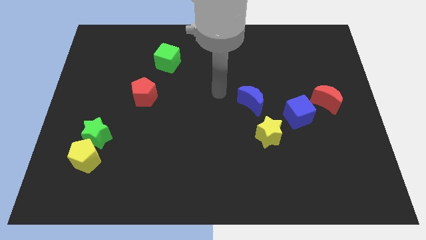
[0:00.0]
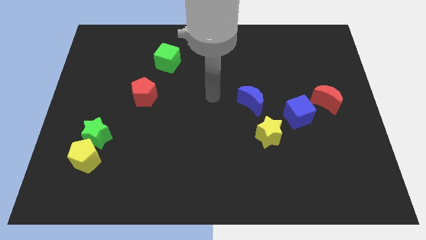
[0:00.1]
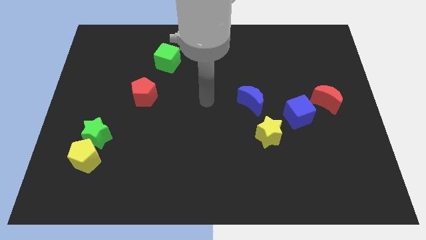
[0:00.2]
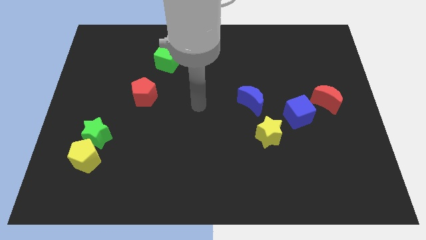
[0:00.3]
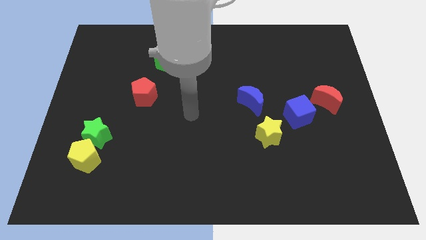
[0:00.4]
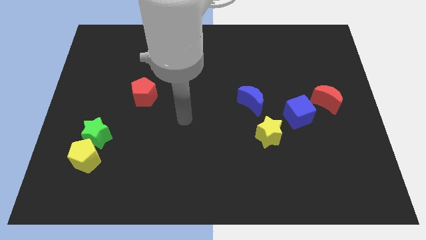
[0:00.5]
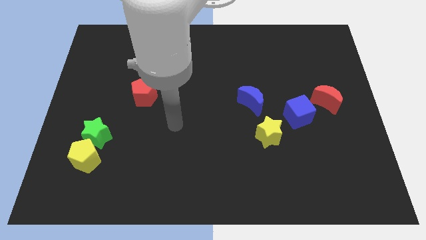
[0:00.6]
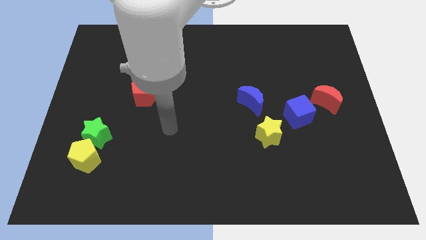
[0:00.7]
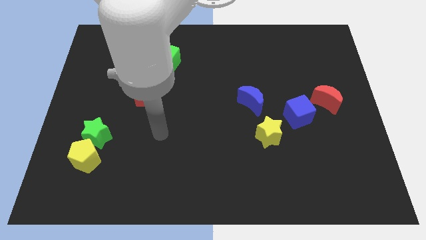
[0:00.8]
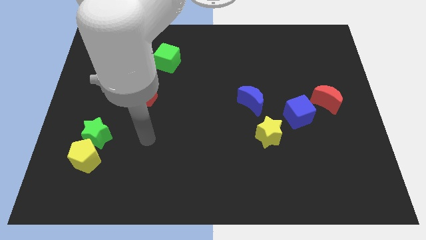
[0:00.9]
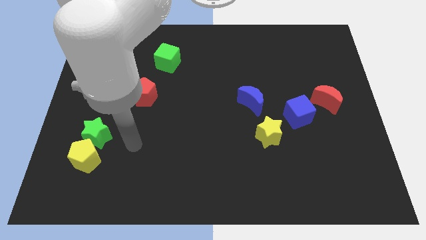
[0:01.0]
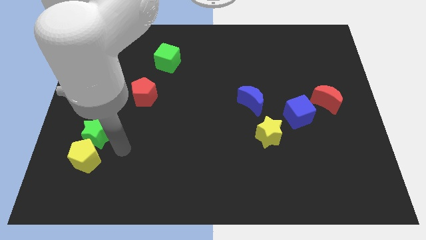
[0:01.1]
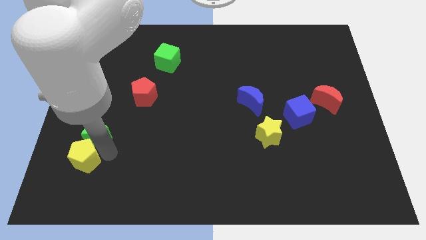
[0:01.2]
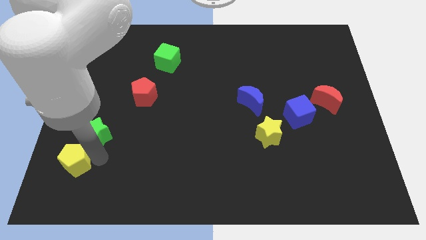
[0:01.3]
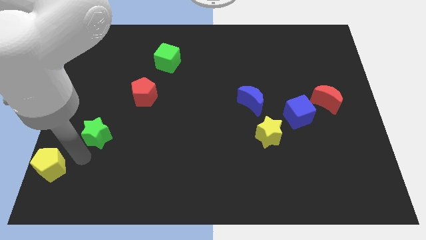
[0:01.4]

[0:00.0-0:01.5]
separate the green star from the yellow pentagon

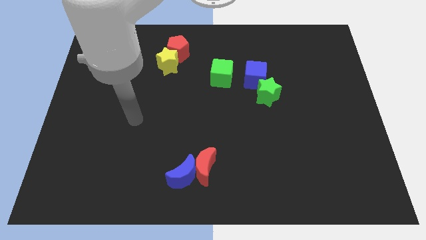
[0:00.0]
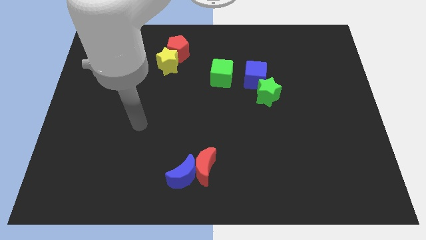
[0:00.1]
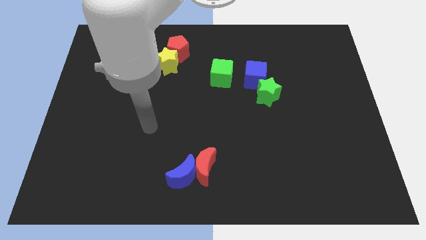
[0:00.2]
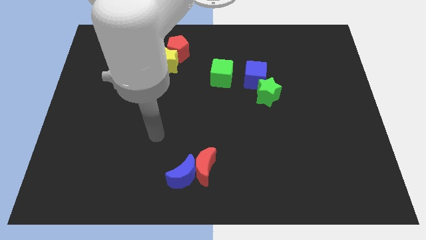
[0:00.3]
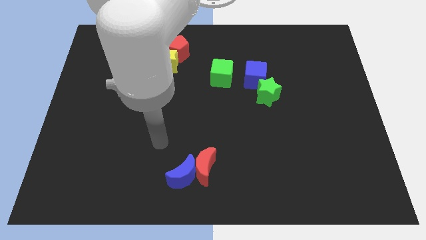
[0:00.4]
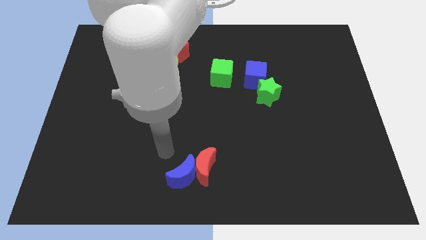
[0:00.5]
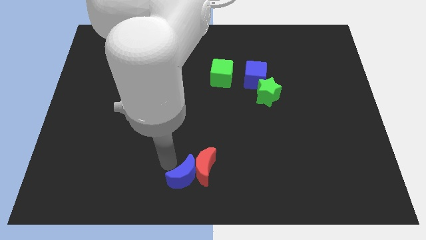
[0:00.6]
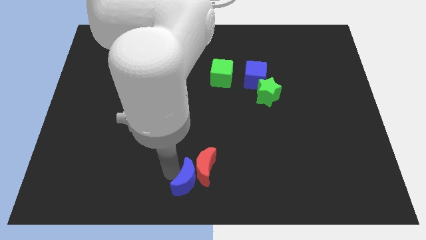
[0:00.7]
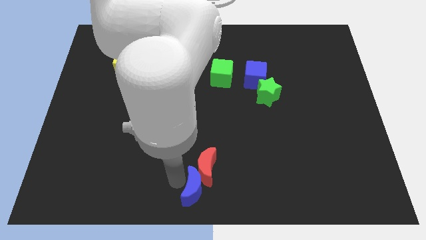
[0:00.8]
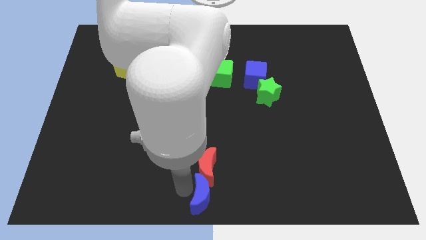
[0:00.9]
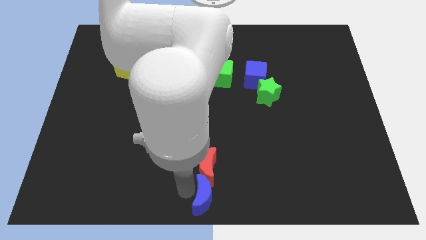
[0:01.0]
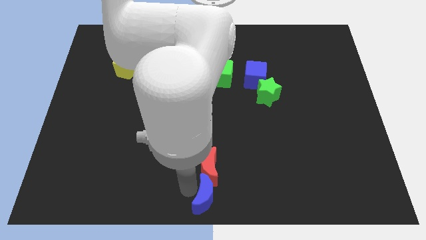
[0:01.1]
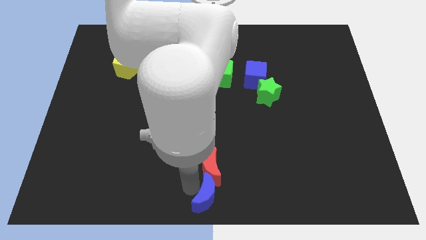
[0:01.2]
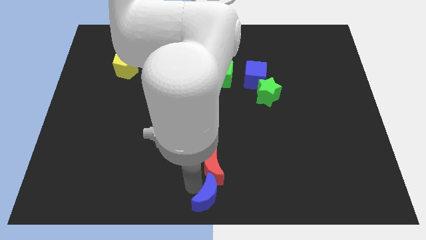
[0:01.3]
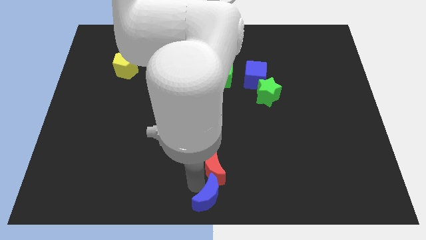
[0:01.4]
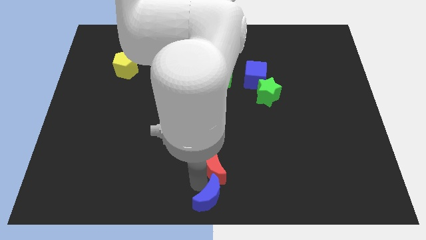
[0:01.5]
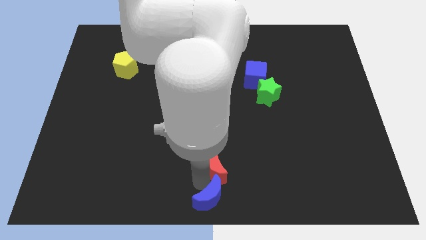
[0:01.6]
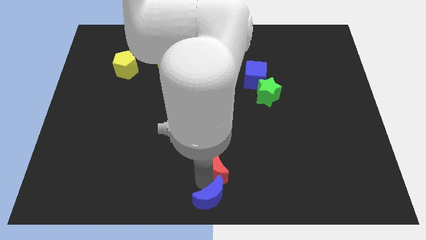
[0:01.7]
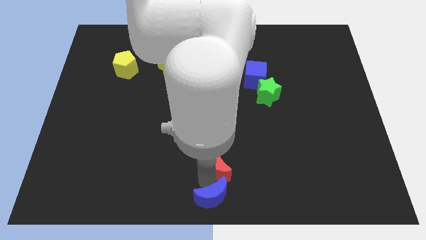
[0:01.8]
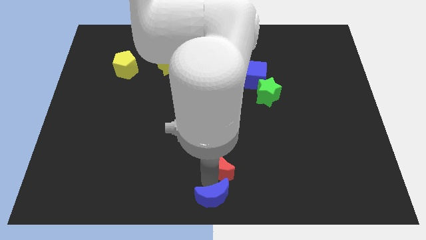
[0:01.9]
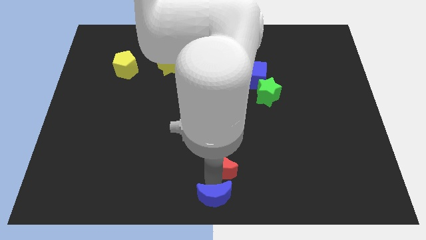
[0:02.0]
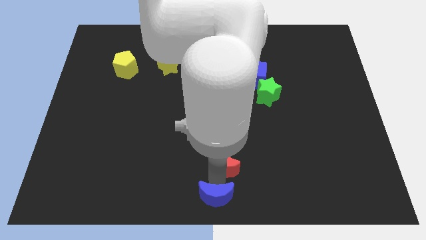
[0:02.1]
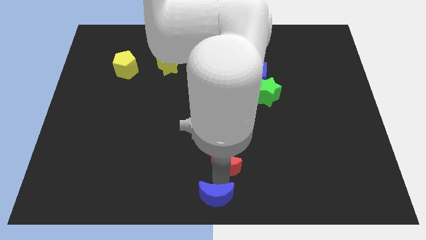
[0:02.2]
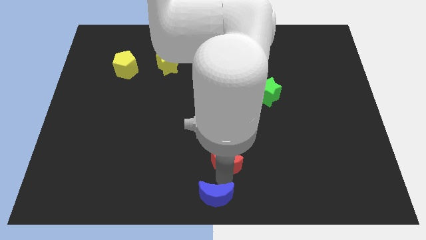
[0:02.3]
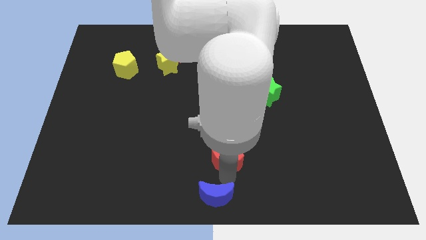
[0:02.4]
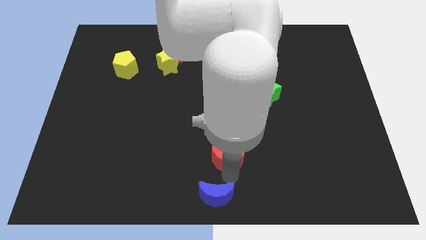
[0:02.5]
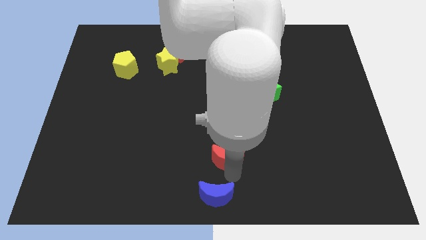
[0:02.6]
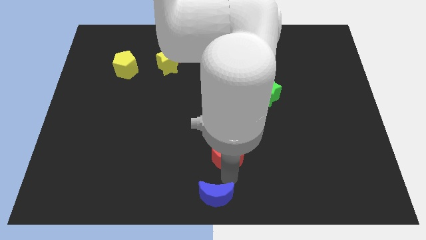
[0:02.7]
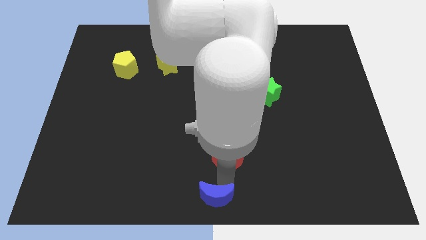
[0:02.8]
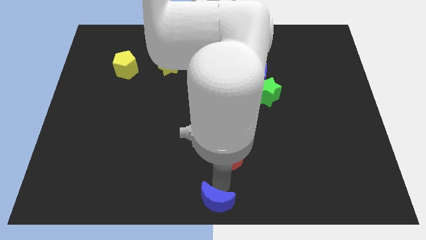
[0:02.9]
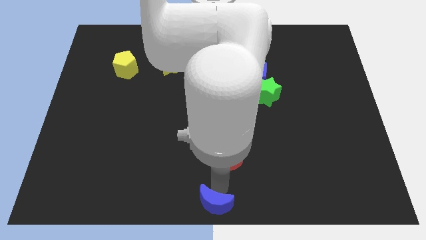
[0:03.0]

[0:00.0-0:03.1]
separate the red moon from the blue moon

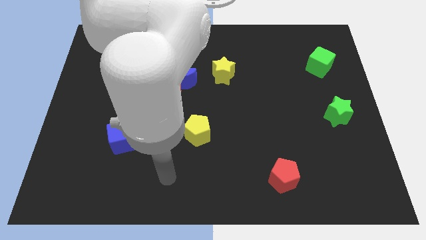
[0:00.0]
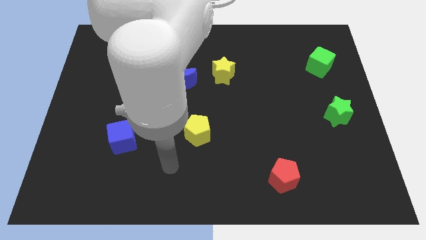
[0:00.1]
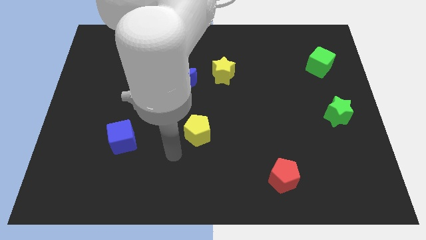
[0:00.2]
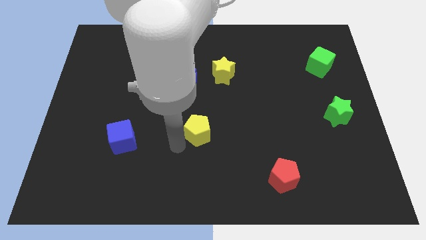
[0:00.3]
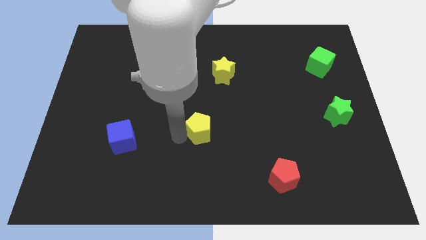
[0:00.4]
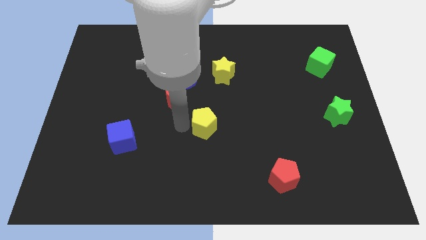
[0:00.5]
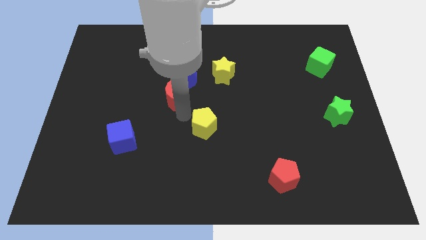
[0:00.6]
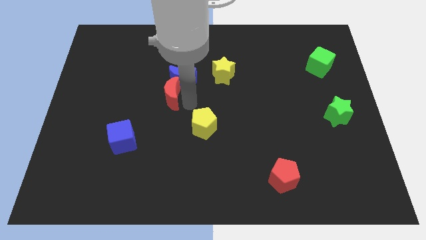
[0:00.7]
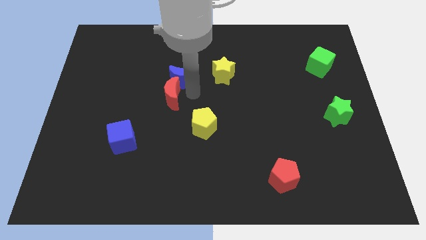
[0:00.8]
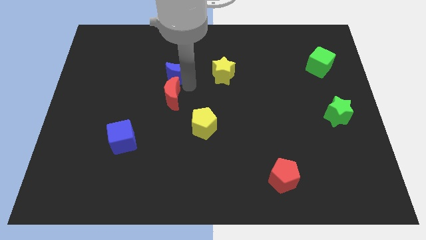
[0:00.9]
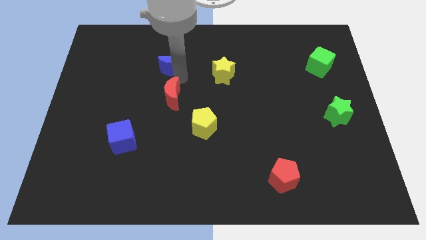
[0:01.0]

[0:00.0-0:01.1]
pull the red moon apart from the blue moon

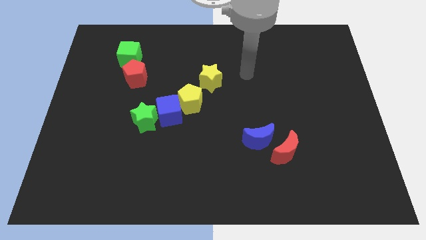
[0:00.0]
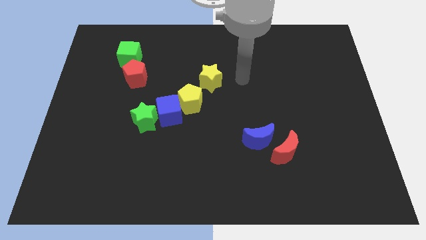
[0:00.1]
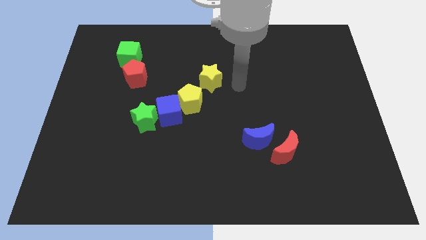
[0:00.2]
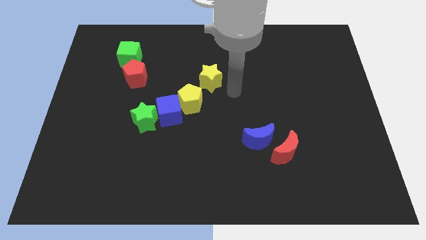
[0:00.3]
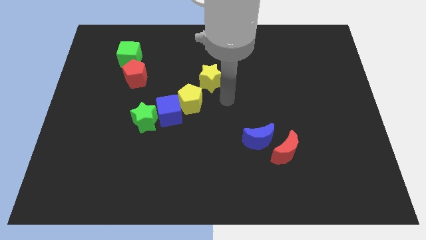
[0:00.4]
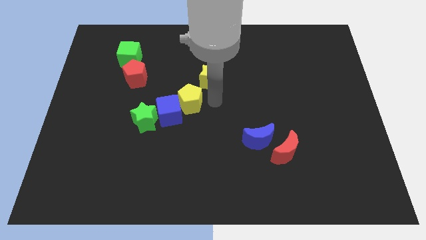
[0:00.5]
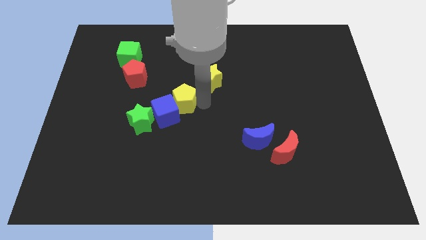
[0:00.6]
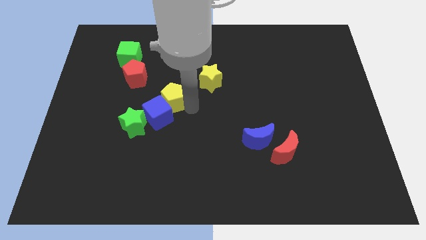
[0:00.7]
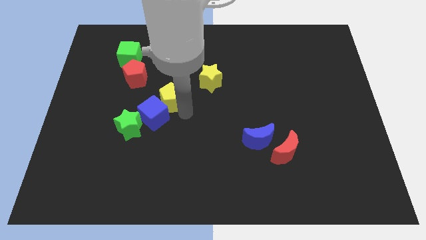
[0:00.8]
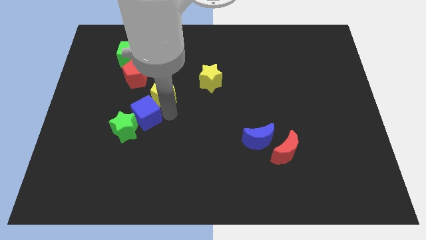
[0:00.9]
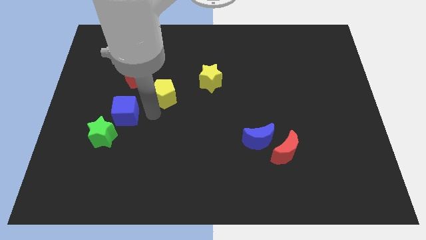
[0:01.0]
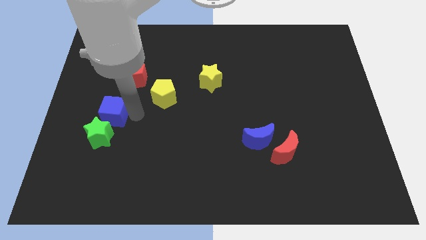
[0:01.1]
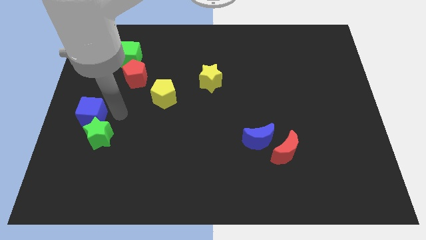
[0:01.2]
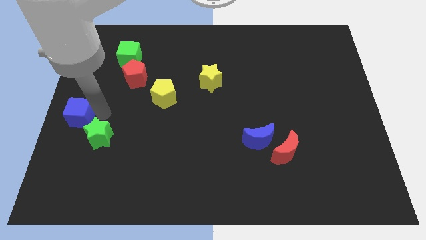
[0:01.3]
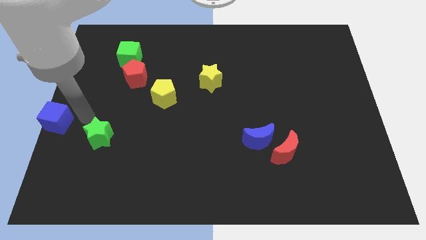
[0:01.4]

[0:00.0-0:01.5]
move the green star away from the blue cube

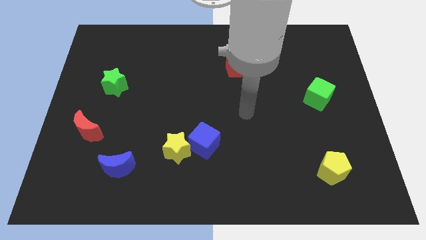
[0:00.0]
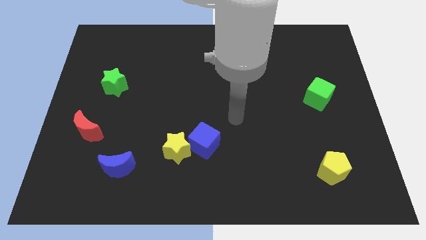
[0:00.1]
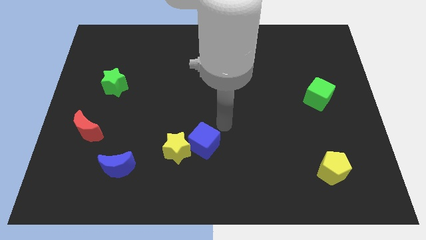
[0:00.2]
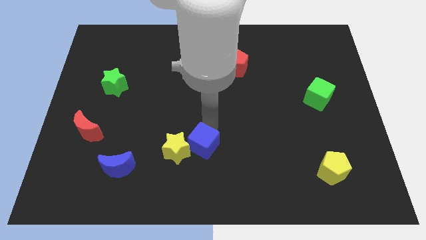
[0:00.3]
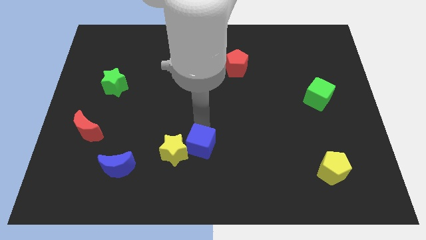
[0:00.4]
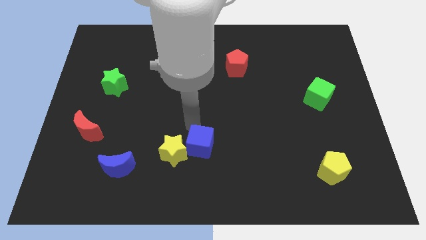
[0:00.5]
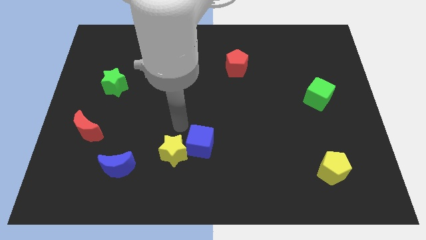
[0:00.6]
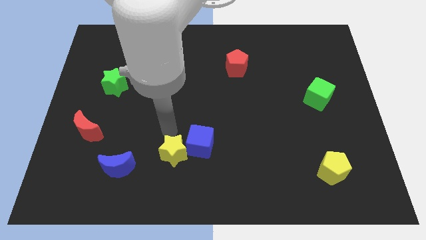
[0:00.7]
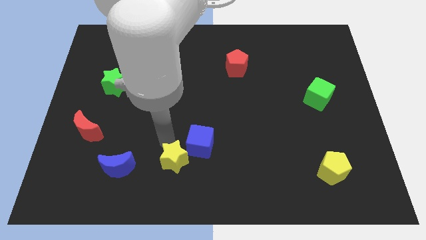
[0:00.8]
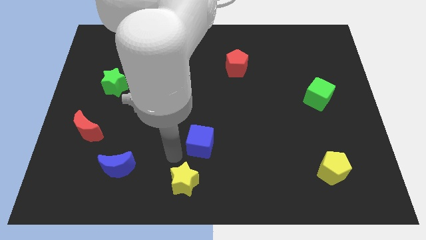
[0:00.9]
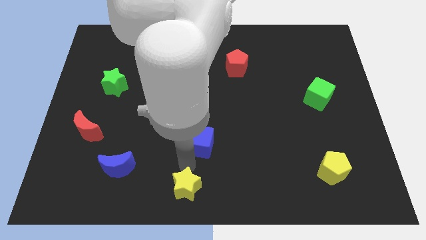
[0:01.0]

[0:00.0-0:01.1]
separate the blue cube from the yellow star

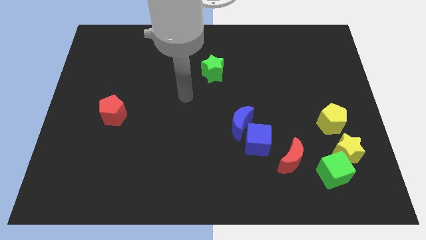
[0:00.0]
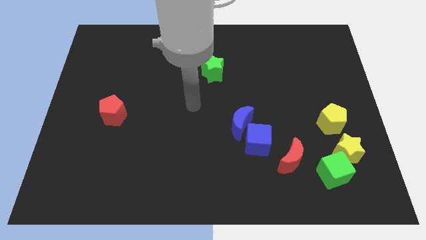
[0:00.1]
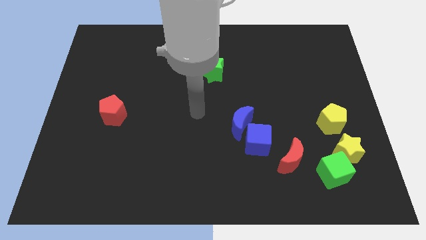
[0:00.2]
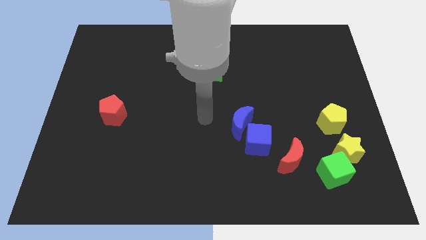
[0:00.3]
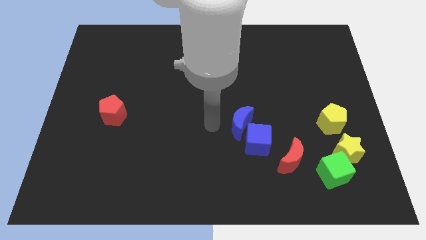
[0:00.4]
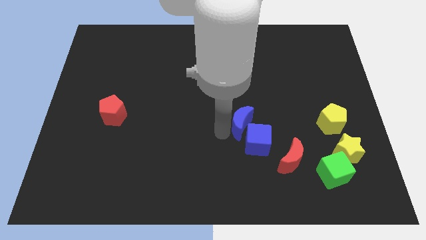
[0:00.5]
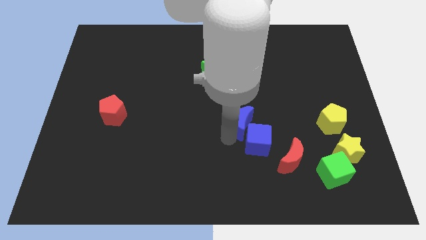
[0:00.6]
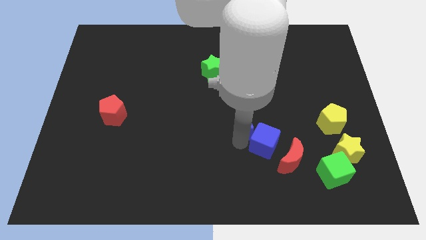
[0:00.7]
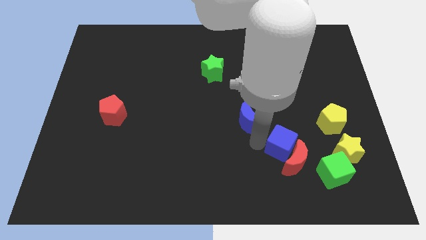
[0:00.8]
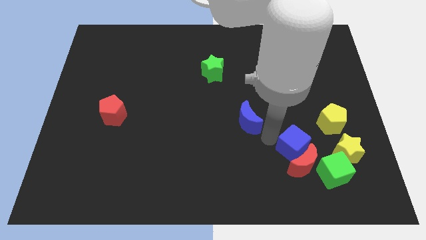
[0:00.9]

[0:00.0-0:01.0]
separate the blue moon from the blue cube
